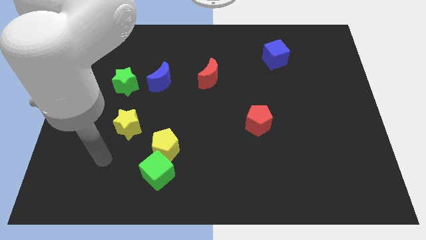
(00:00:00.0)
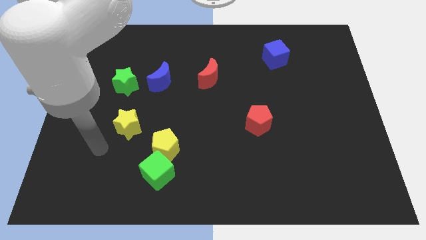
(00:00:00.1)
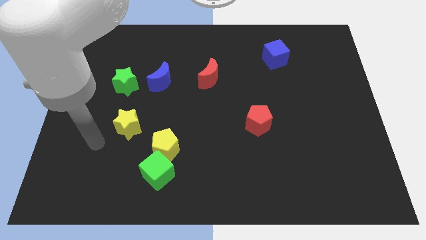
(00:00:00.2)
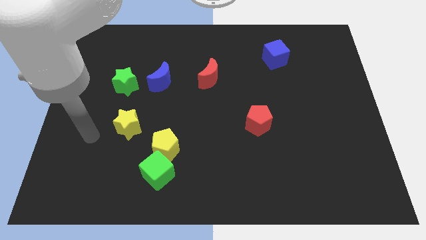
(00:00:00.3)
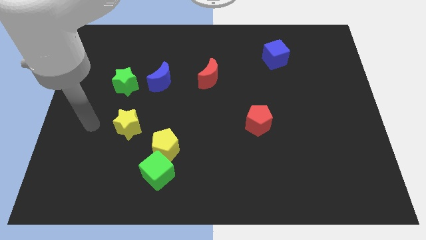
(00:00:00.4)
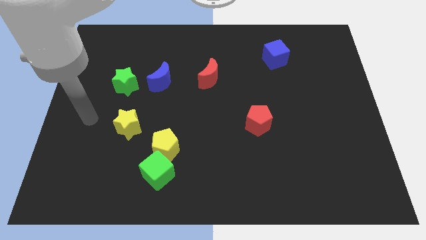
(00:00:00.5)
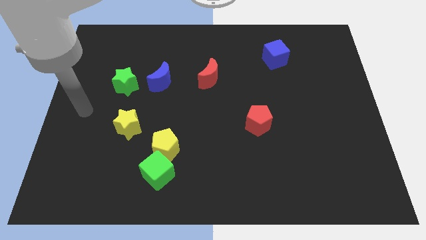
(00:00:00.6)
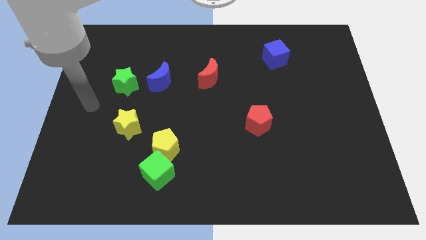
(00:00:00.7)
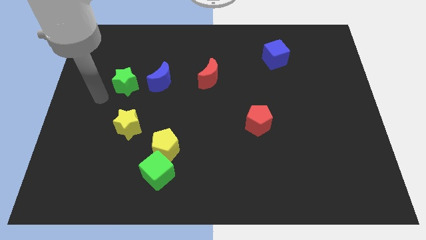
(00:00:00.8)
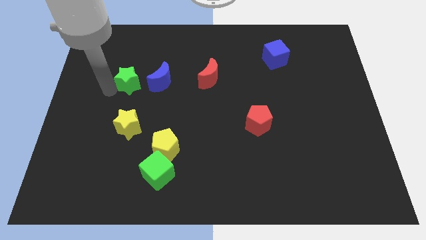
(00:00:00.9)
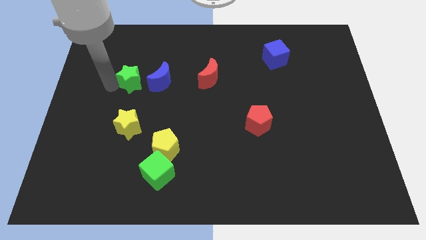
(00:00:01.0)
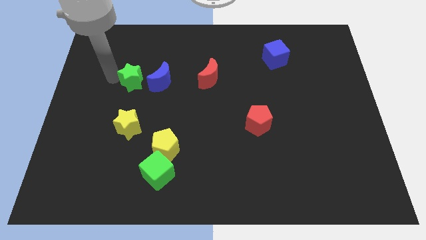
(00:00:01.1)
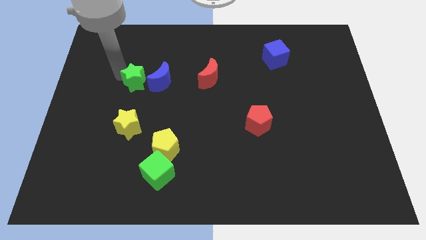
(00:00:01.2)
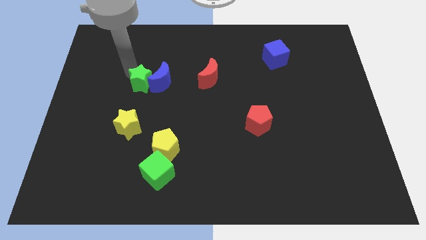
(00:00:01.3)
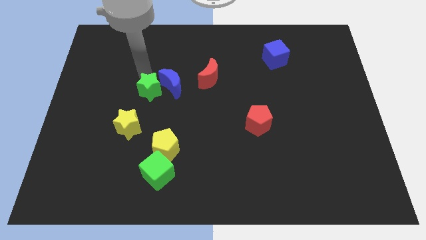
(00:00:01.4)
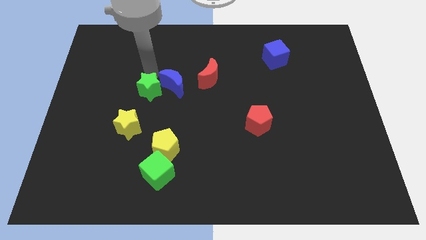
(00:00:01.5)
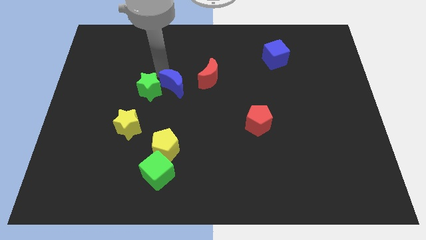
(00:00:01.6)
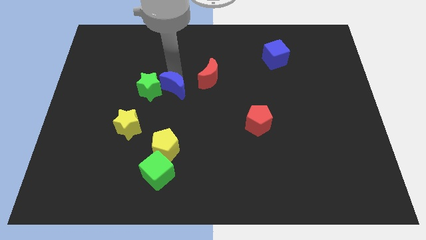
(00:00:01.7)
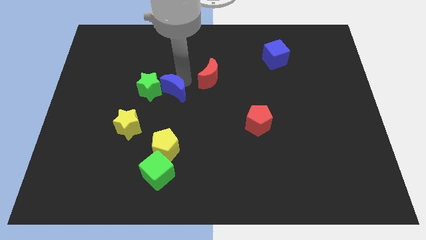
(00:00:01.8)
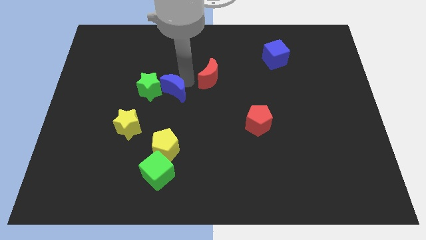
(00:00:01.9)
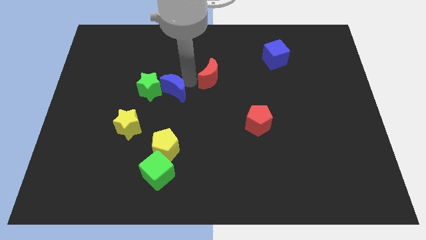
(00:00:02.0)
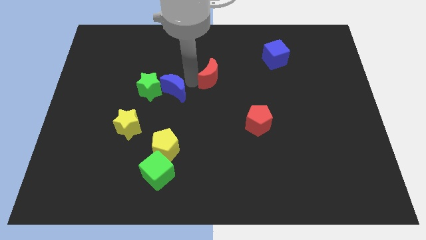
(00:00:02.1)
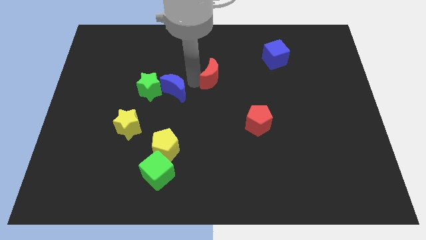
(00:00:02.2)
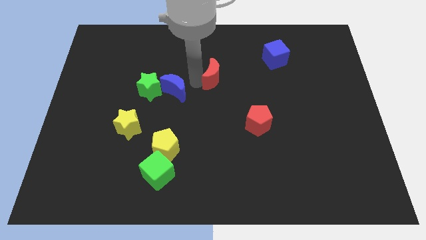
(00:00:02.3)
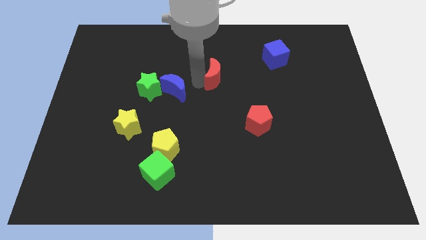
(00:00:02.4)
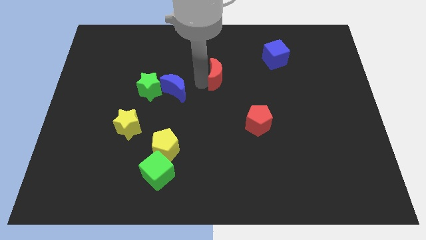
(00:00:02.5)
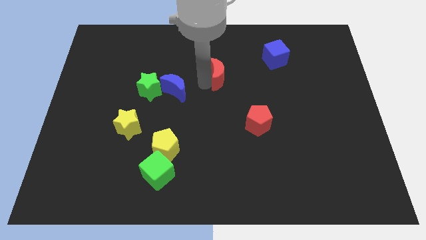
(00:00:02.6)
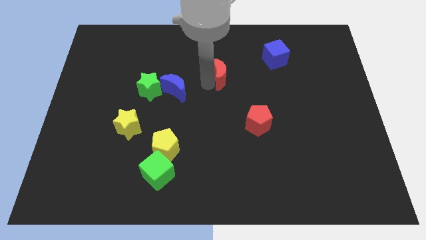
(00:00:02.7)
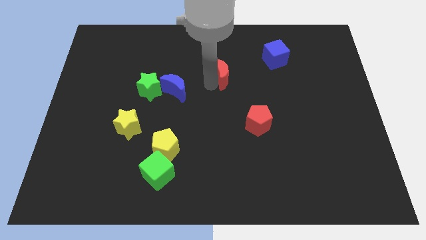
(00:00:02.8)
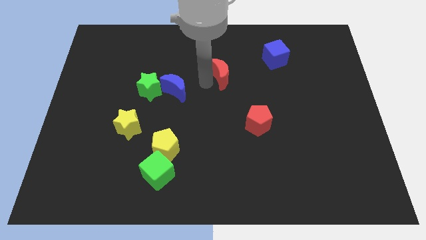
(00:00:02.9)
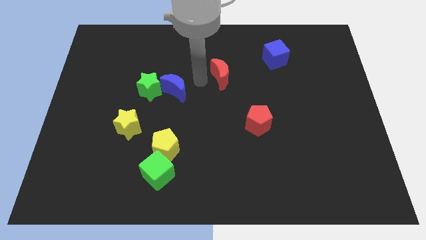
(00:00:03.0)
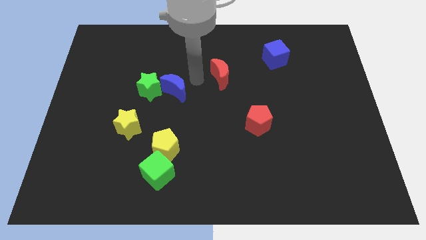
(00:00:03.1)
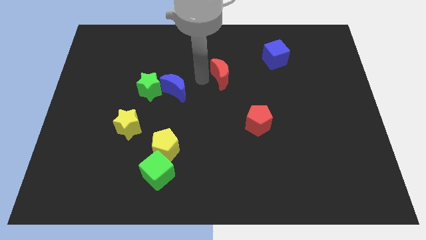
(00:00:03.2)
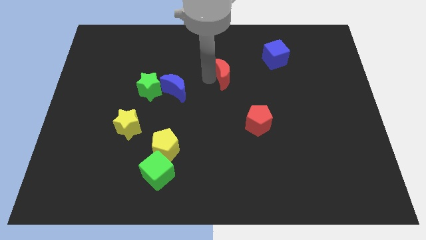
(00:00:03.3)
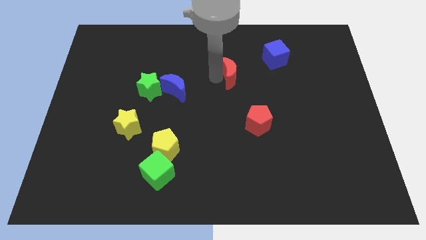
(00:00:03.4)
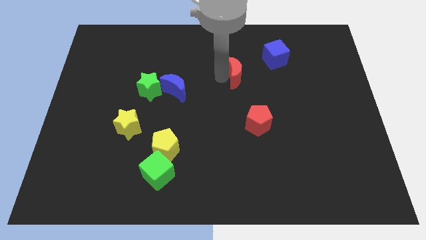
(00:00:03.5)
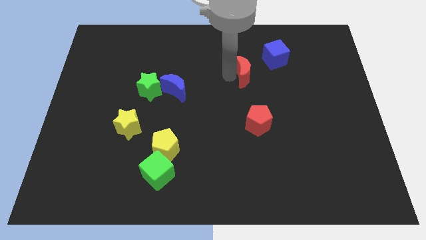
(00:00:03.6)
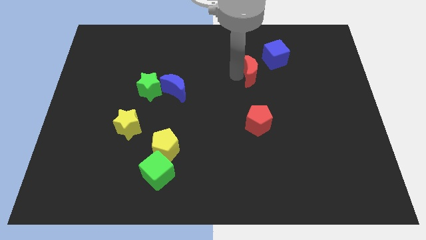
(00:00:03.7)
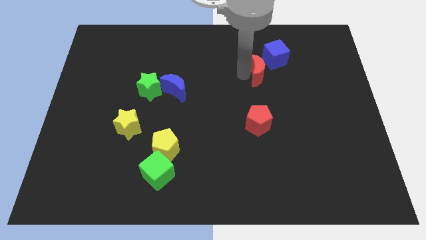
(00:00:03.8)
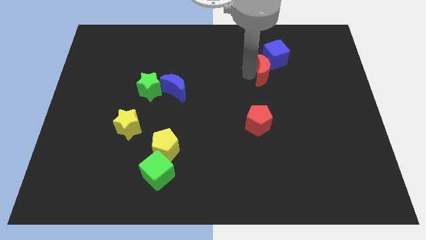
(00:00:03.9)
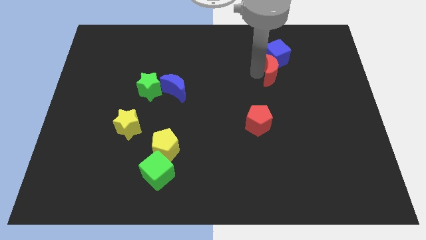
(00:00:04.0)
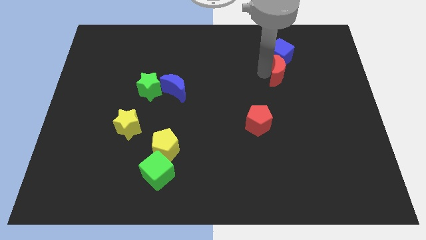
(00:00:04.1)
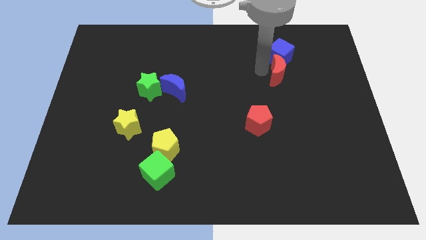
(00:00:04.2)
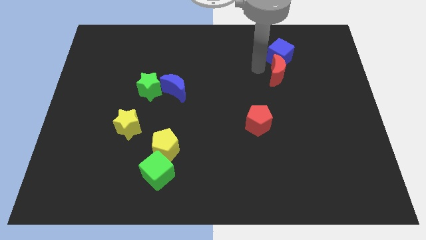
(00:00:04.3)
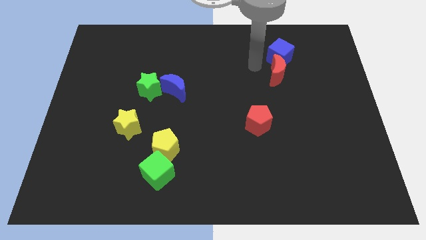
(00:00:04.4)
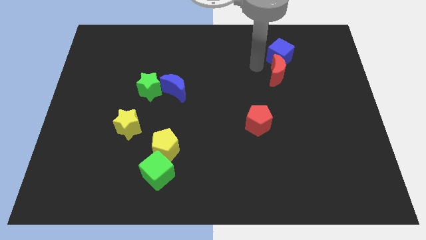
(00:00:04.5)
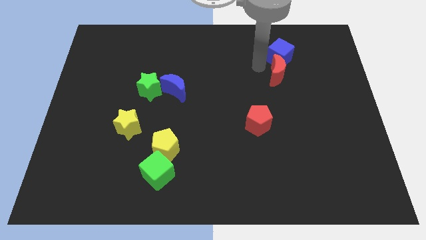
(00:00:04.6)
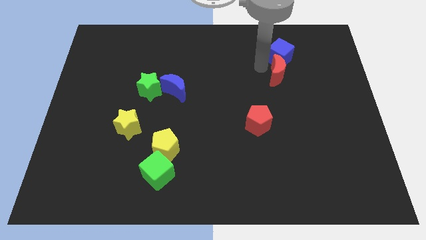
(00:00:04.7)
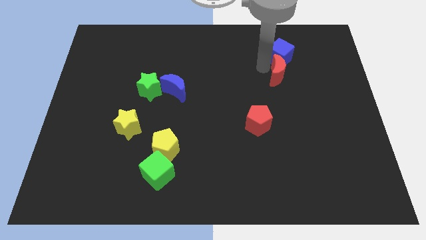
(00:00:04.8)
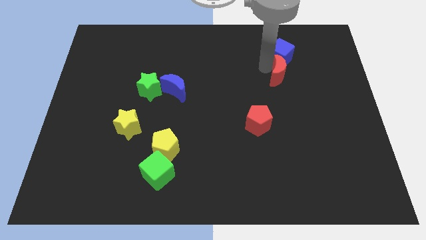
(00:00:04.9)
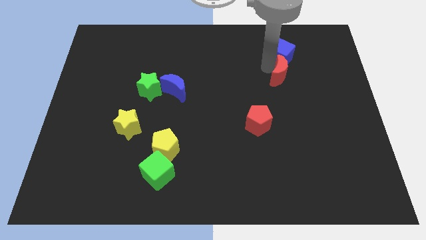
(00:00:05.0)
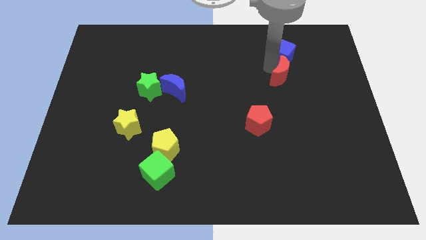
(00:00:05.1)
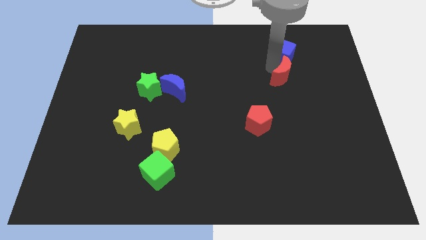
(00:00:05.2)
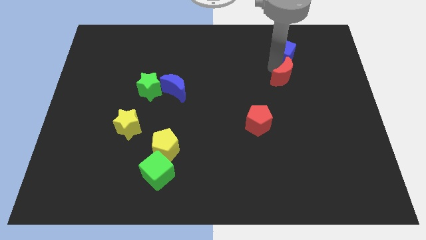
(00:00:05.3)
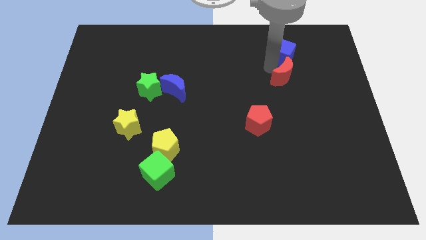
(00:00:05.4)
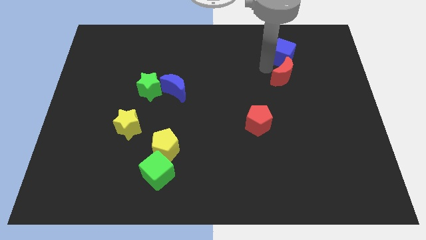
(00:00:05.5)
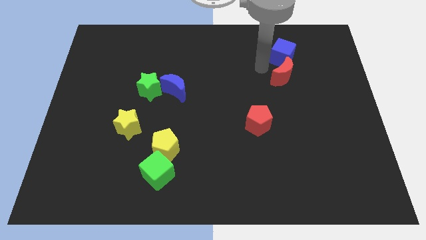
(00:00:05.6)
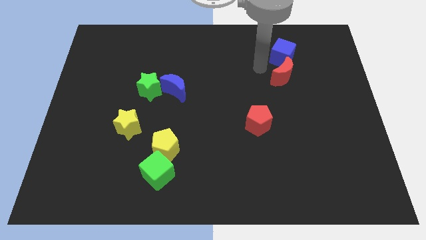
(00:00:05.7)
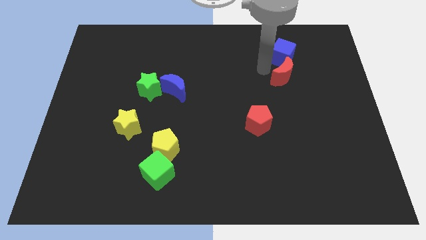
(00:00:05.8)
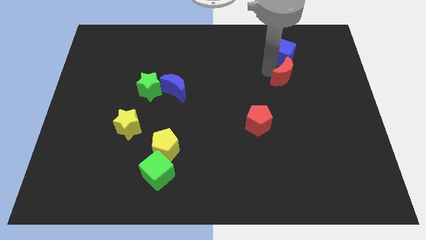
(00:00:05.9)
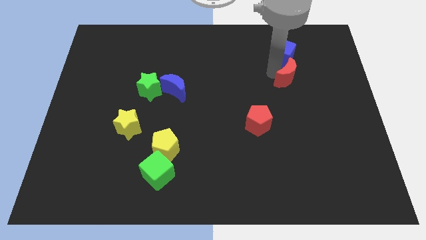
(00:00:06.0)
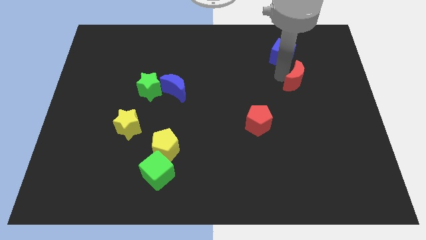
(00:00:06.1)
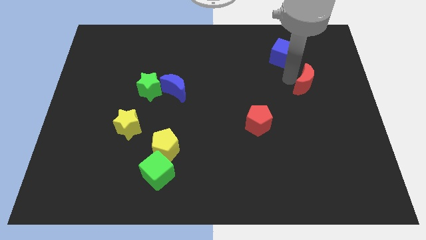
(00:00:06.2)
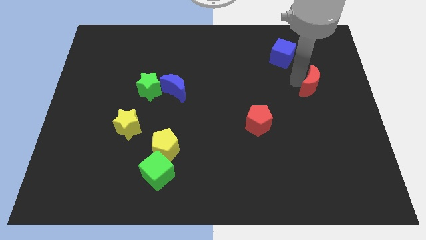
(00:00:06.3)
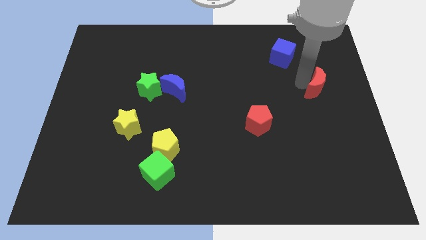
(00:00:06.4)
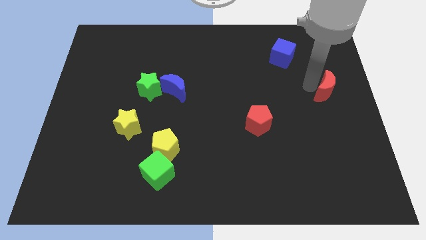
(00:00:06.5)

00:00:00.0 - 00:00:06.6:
put the red moon to the right side
